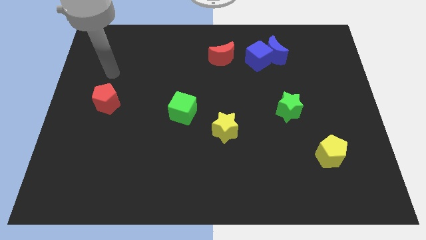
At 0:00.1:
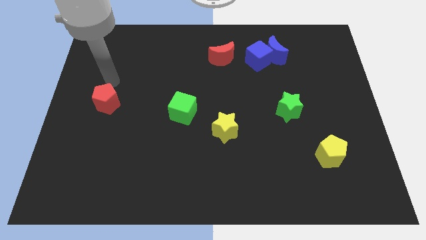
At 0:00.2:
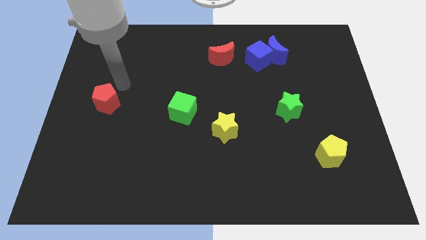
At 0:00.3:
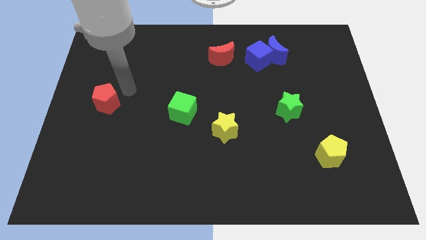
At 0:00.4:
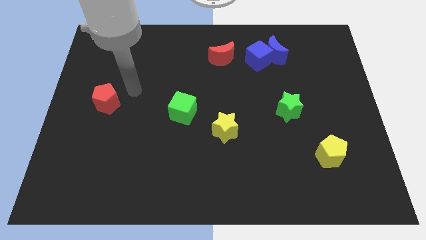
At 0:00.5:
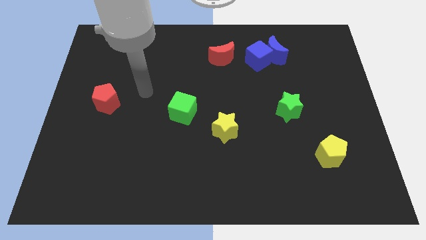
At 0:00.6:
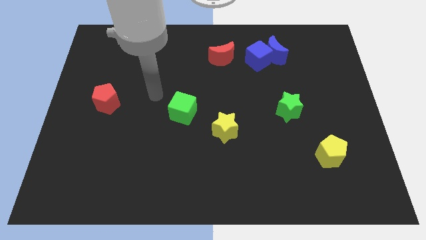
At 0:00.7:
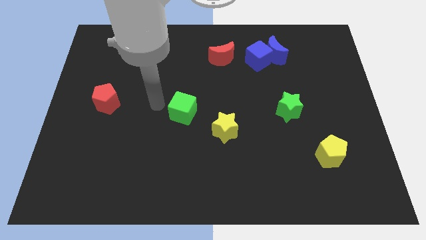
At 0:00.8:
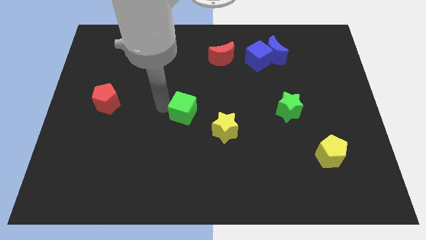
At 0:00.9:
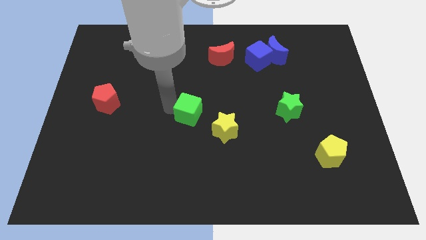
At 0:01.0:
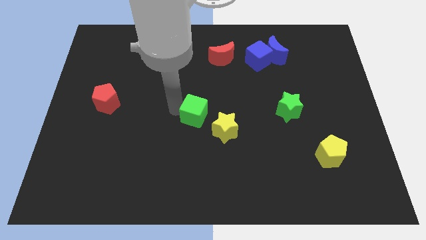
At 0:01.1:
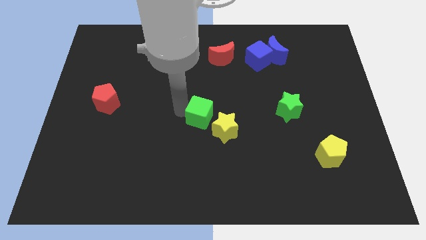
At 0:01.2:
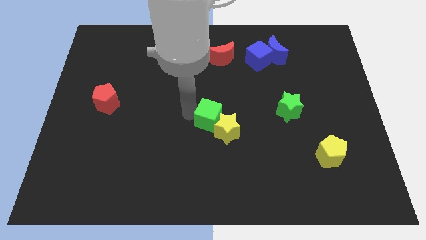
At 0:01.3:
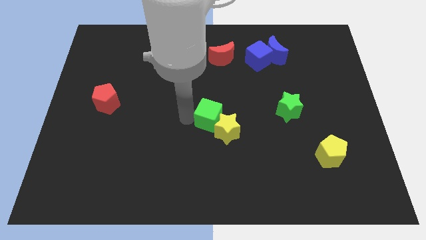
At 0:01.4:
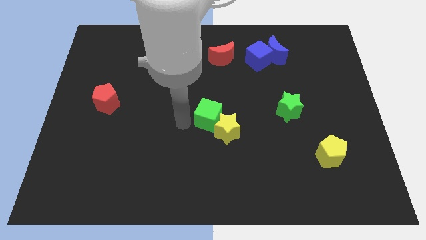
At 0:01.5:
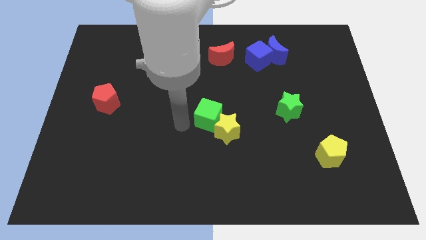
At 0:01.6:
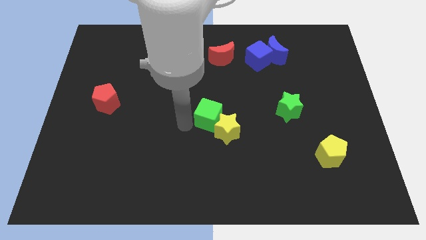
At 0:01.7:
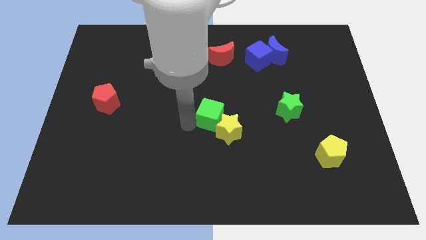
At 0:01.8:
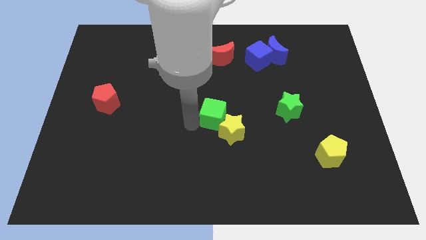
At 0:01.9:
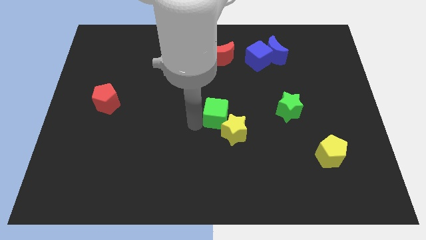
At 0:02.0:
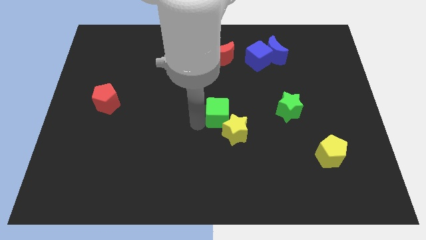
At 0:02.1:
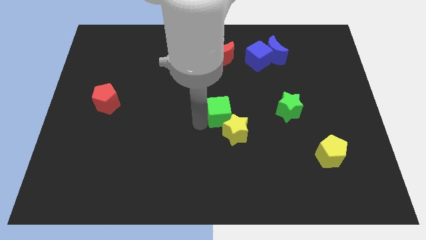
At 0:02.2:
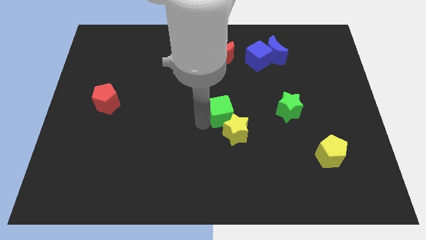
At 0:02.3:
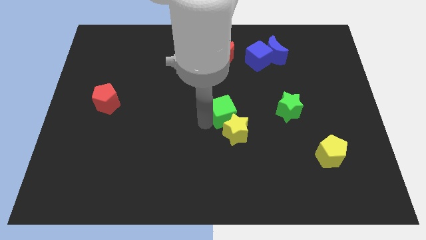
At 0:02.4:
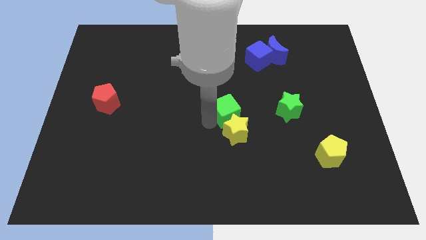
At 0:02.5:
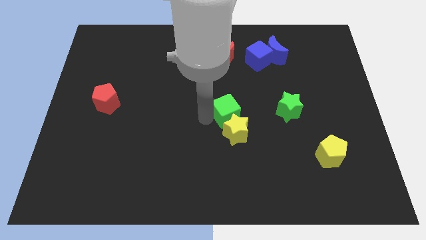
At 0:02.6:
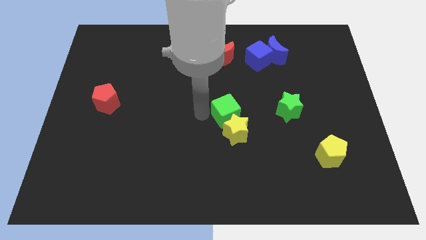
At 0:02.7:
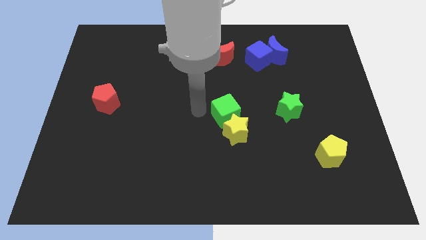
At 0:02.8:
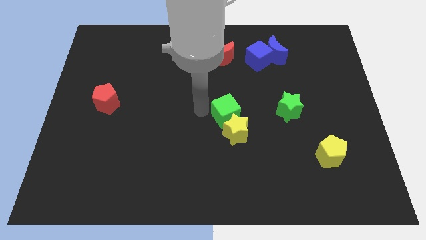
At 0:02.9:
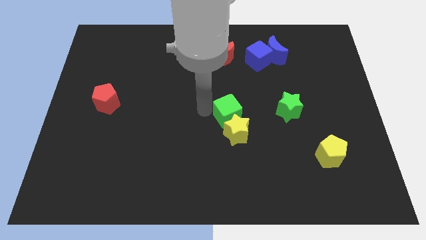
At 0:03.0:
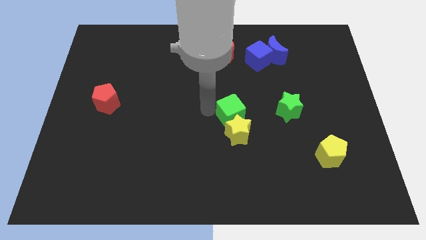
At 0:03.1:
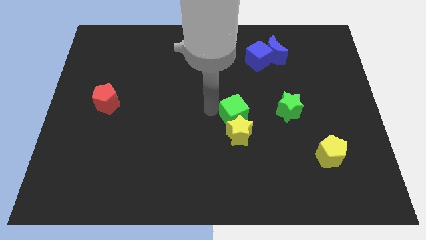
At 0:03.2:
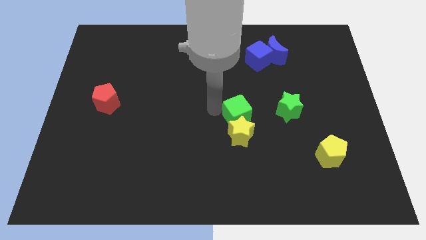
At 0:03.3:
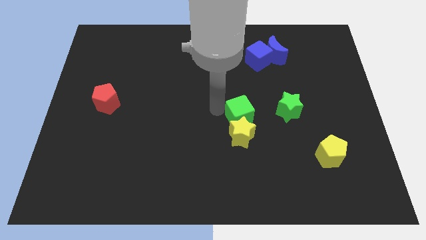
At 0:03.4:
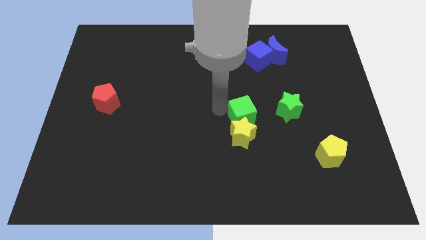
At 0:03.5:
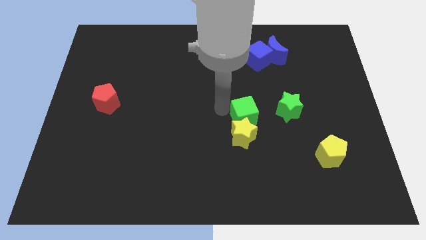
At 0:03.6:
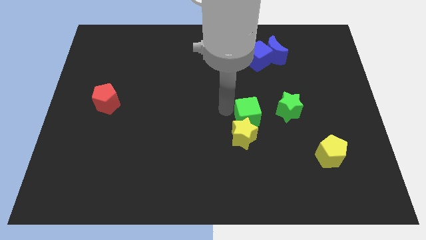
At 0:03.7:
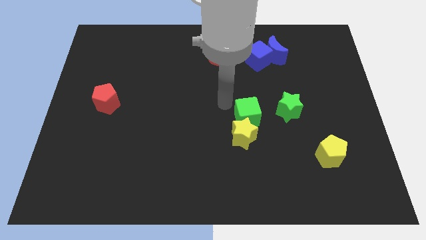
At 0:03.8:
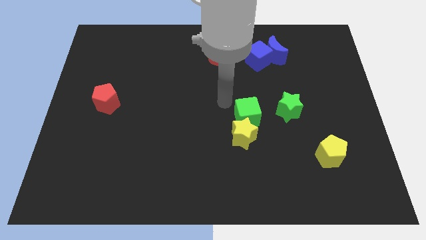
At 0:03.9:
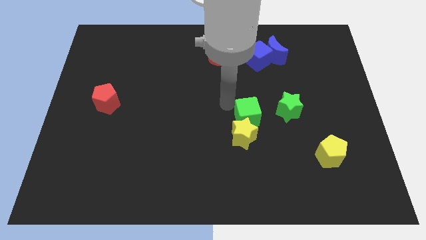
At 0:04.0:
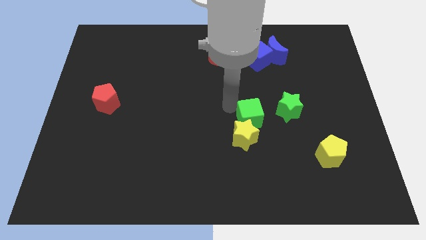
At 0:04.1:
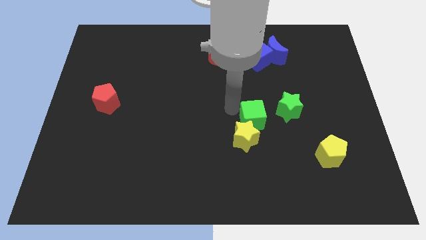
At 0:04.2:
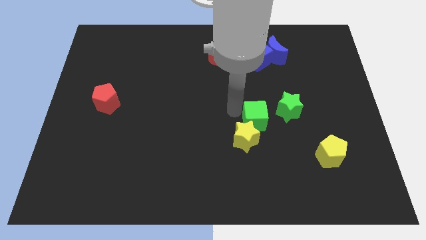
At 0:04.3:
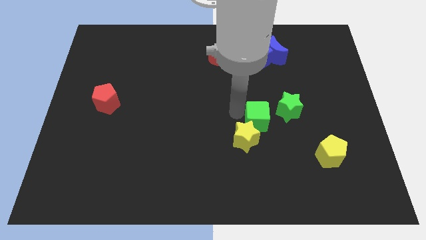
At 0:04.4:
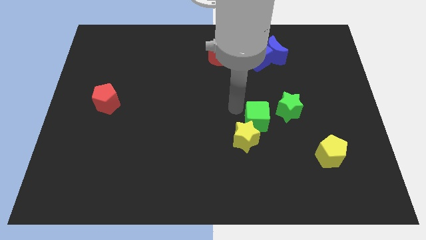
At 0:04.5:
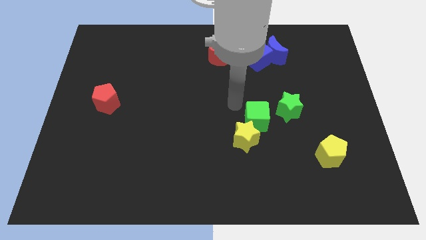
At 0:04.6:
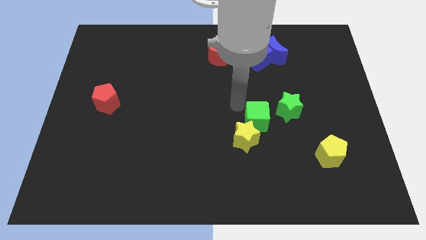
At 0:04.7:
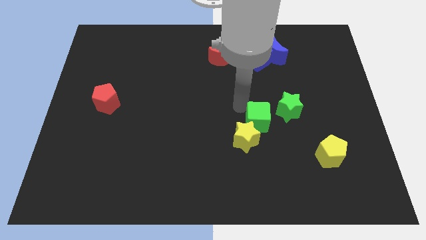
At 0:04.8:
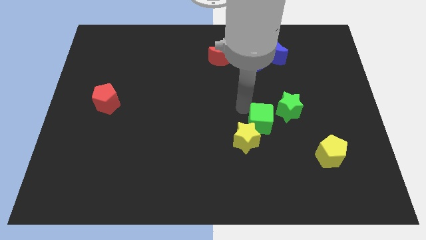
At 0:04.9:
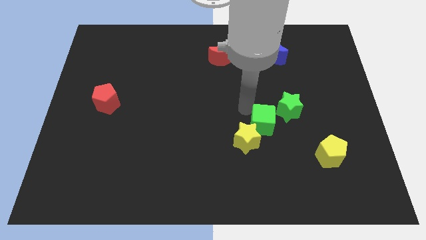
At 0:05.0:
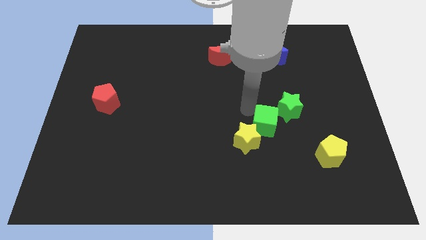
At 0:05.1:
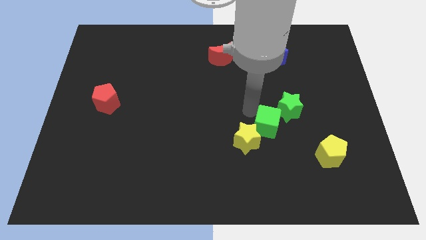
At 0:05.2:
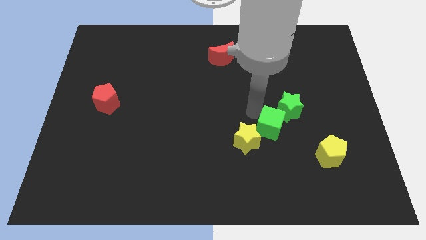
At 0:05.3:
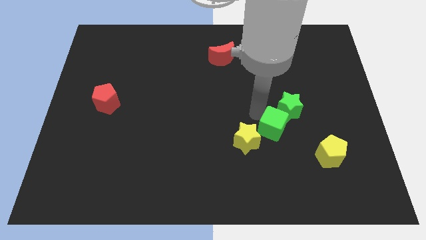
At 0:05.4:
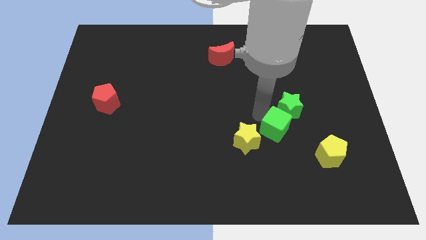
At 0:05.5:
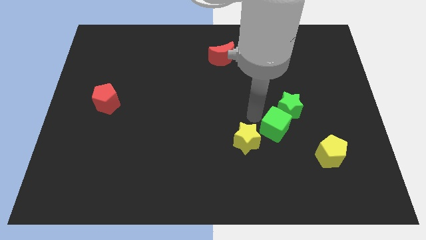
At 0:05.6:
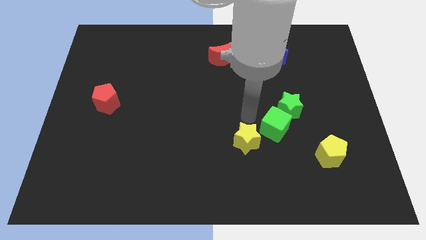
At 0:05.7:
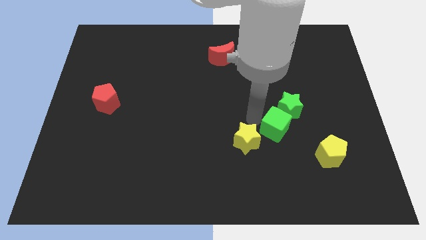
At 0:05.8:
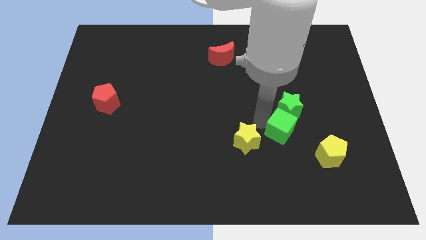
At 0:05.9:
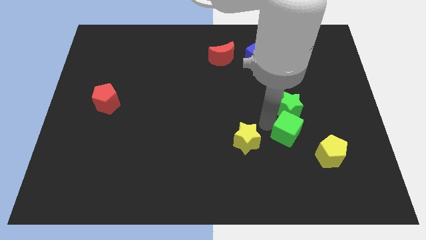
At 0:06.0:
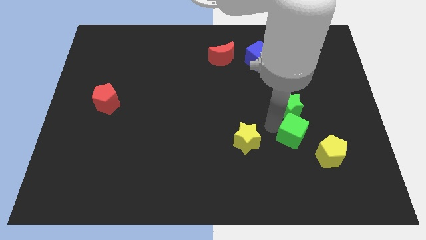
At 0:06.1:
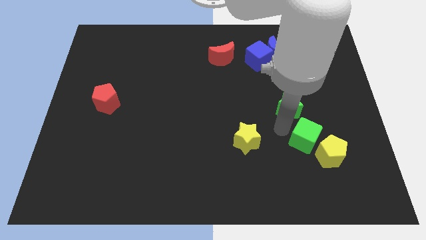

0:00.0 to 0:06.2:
move the green cube close to the yellow pentagon
